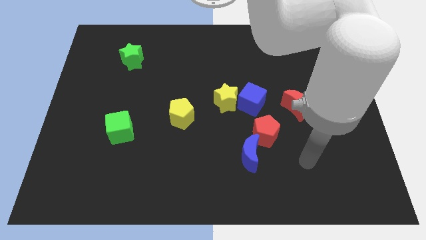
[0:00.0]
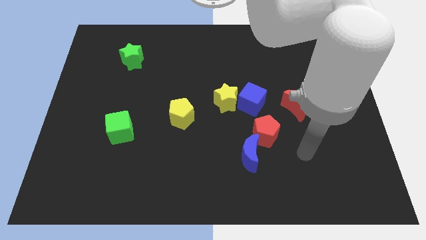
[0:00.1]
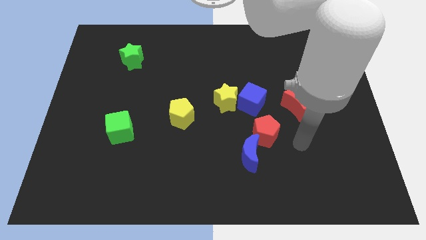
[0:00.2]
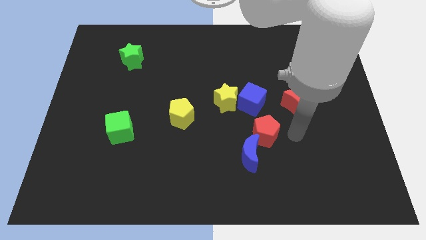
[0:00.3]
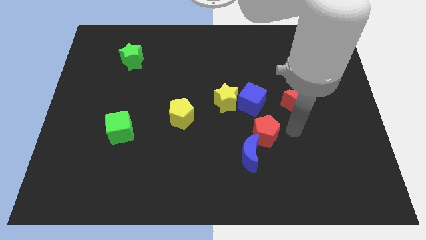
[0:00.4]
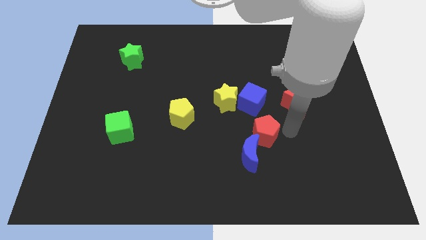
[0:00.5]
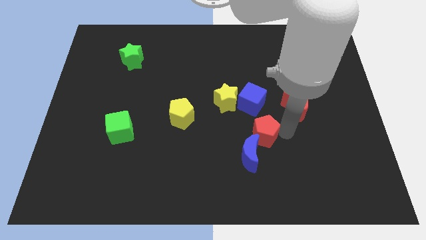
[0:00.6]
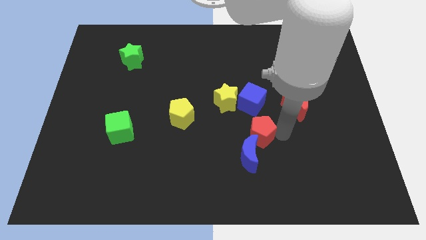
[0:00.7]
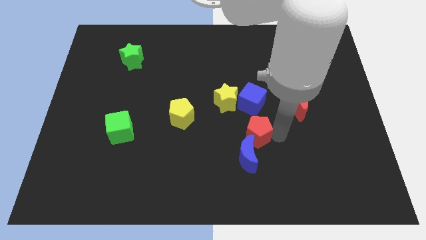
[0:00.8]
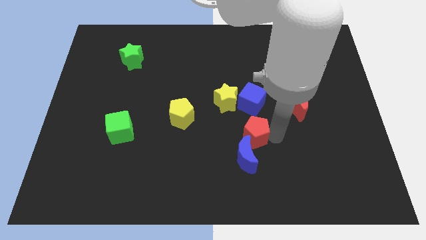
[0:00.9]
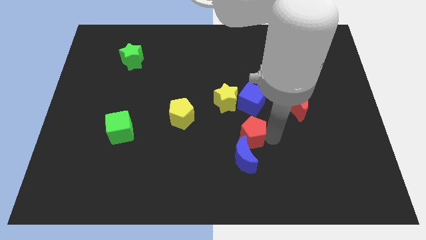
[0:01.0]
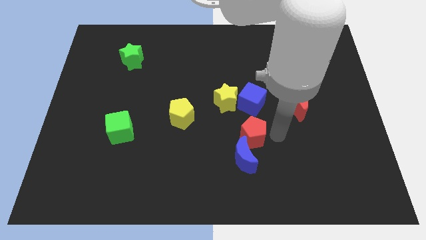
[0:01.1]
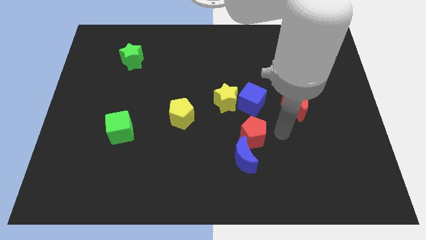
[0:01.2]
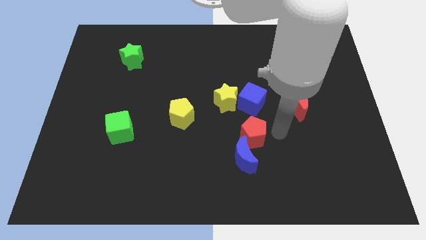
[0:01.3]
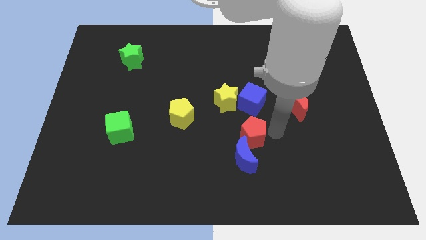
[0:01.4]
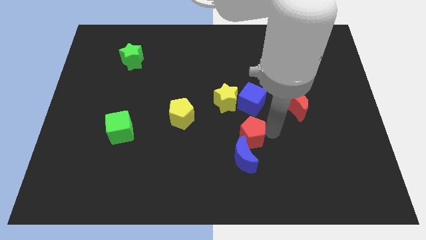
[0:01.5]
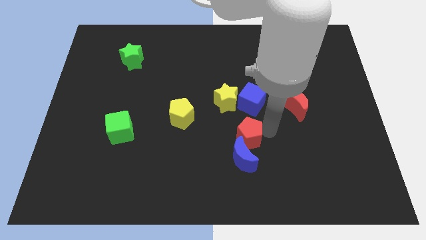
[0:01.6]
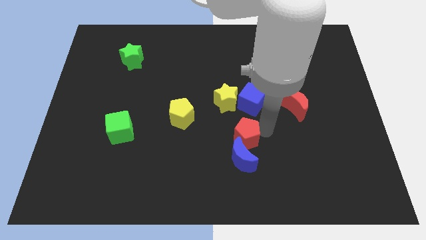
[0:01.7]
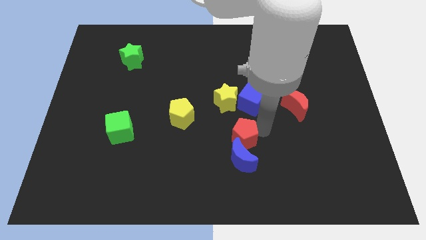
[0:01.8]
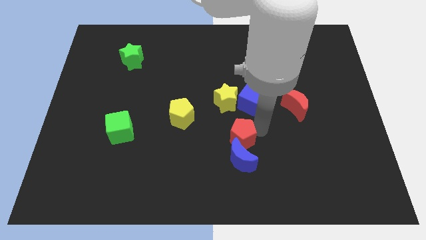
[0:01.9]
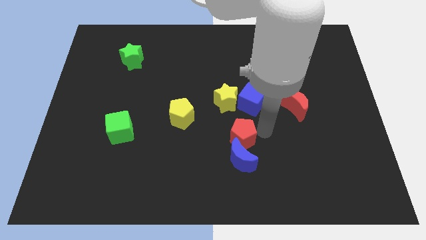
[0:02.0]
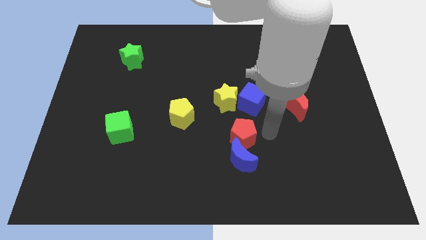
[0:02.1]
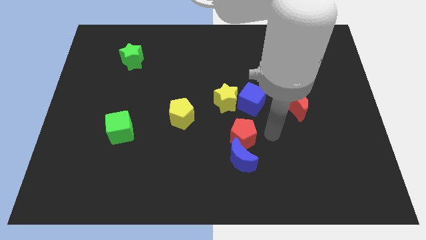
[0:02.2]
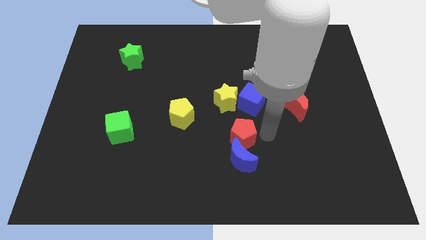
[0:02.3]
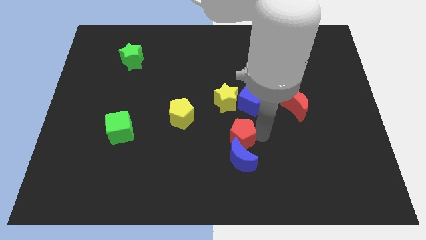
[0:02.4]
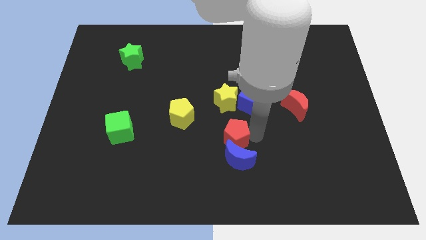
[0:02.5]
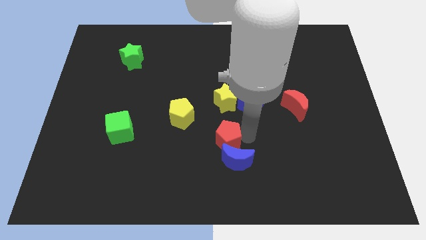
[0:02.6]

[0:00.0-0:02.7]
move the red pentagon a bit left

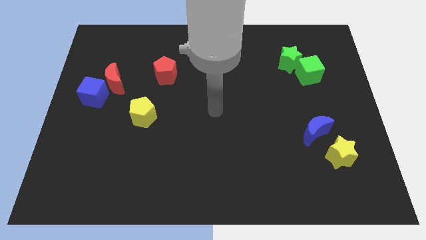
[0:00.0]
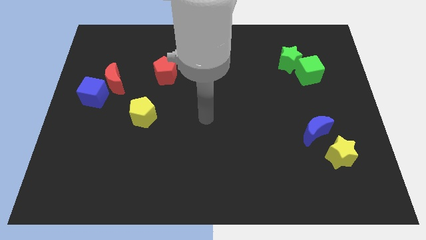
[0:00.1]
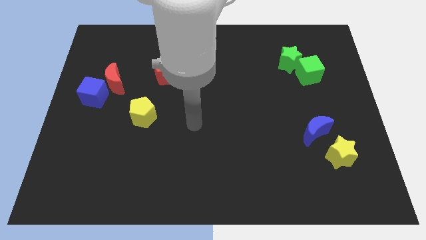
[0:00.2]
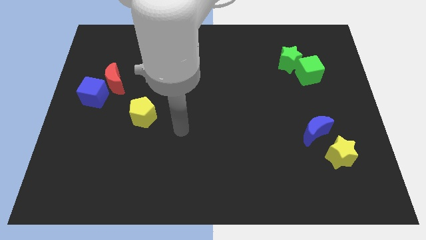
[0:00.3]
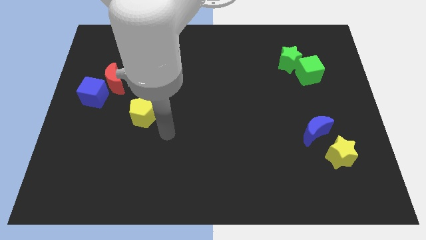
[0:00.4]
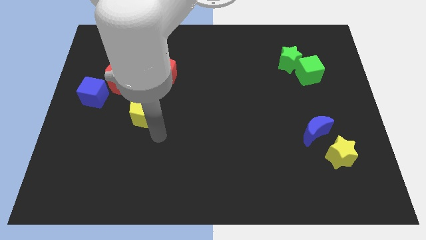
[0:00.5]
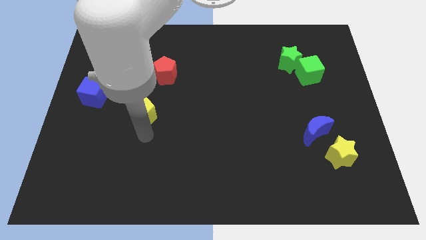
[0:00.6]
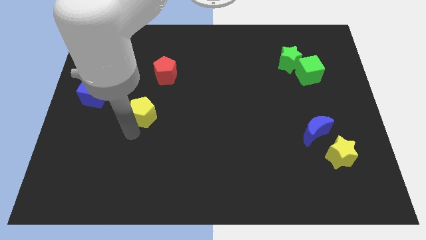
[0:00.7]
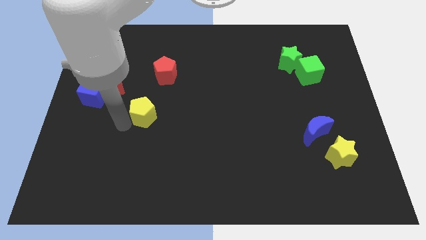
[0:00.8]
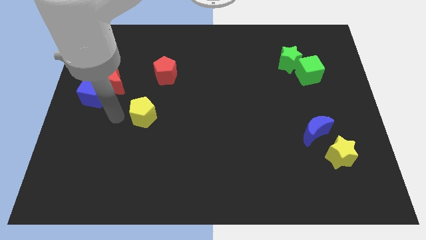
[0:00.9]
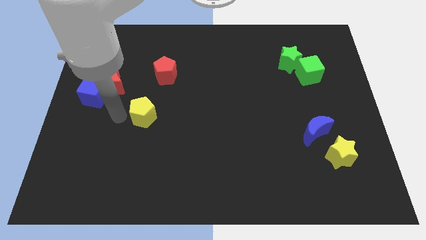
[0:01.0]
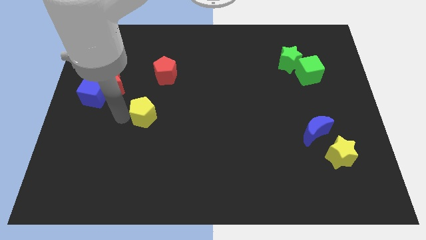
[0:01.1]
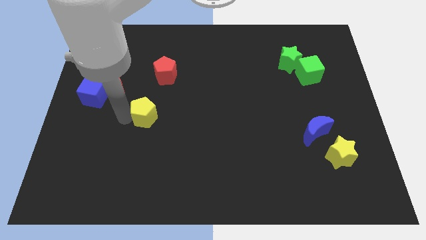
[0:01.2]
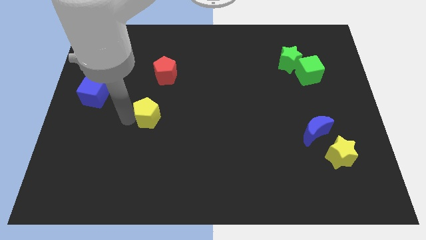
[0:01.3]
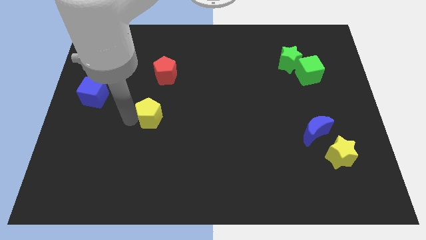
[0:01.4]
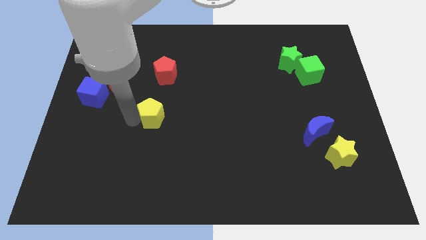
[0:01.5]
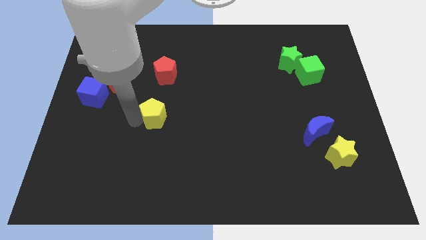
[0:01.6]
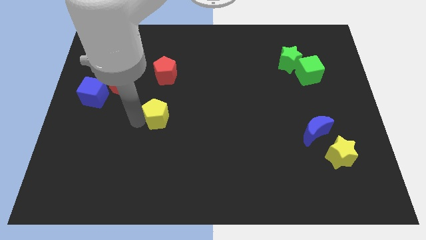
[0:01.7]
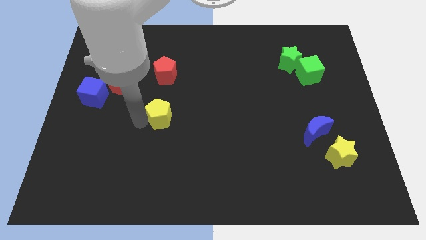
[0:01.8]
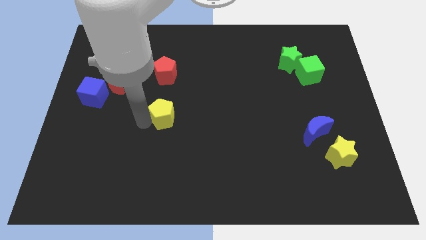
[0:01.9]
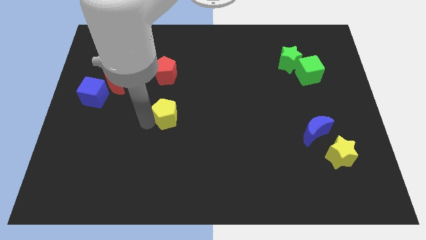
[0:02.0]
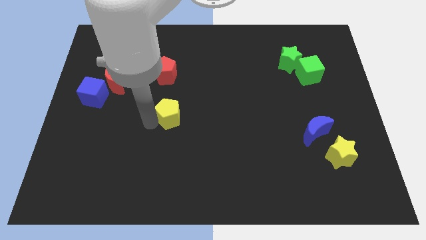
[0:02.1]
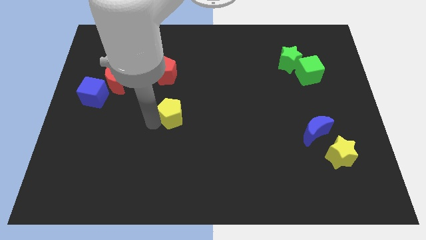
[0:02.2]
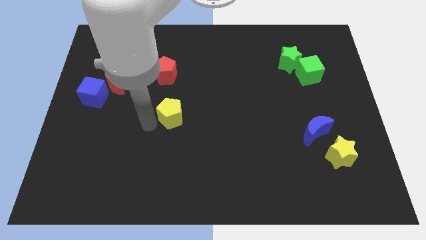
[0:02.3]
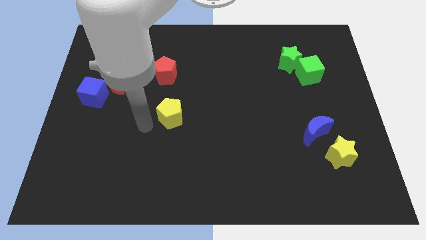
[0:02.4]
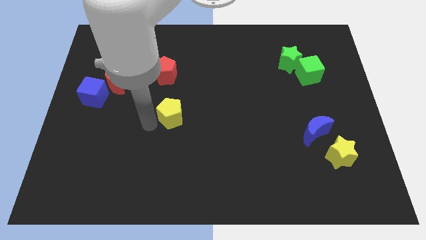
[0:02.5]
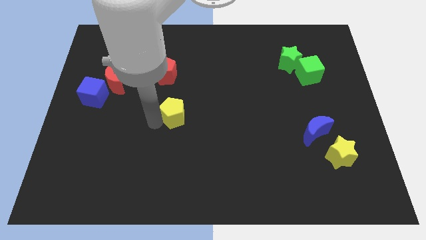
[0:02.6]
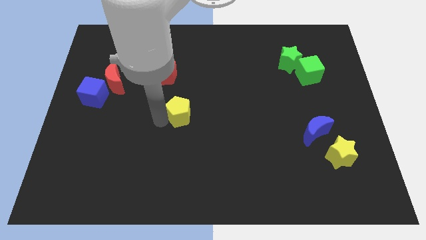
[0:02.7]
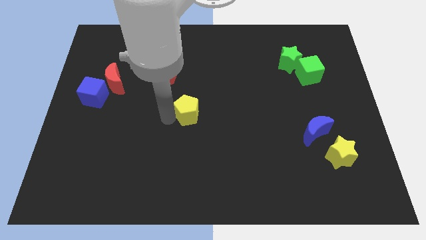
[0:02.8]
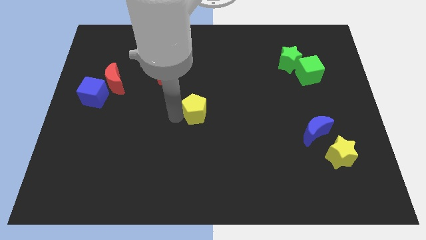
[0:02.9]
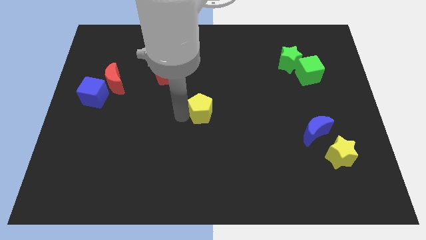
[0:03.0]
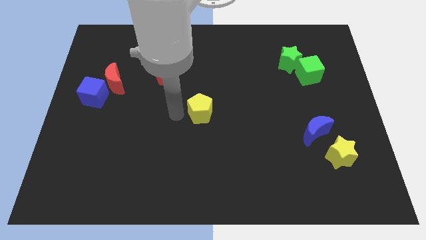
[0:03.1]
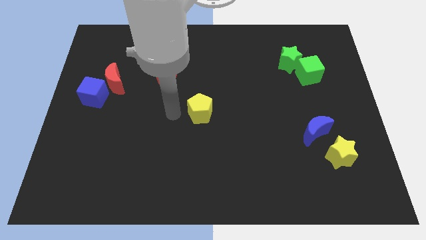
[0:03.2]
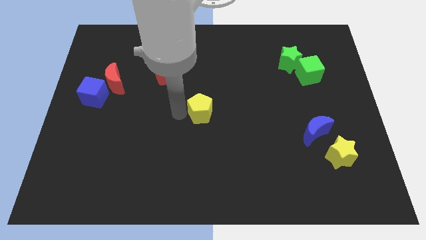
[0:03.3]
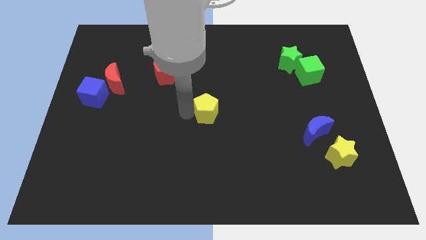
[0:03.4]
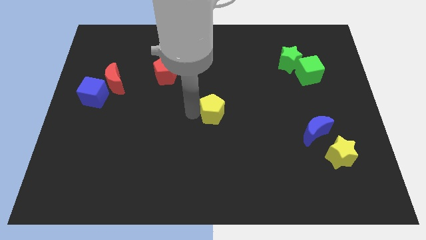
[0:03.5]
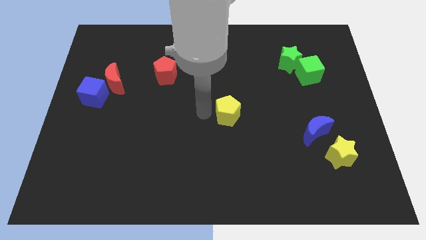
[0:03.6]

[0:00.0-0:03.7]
slide the yellow pentagon to the right

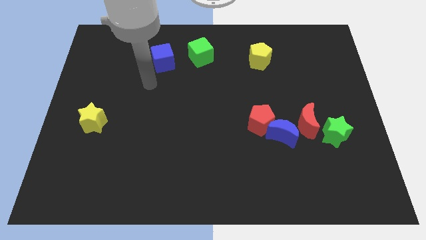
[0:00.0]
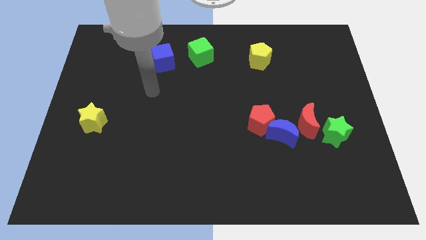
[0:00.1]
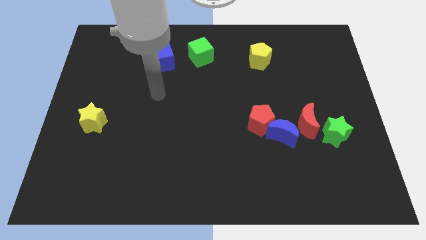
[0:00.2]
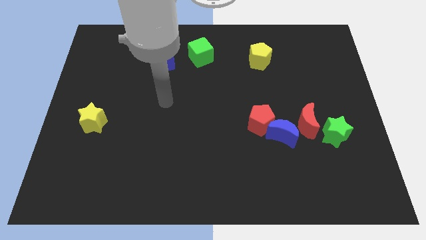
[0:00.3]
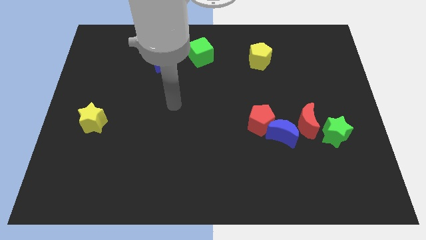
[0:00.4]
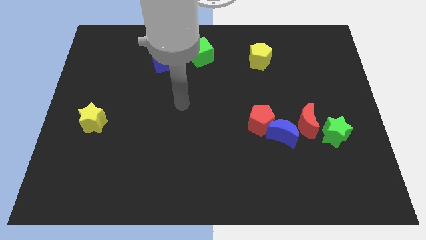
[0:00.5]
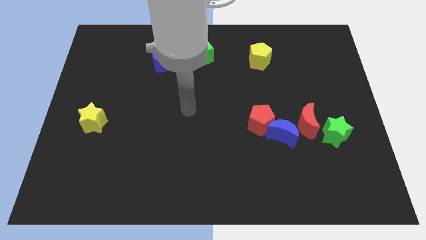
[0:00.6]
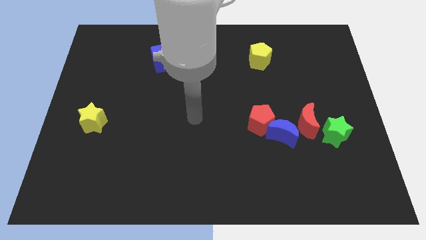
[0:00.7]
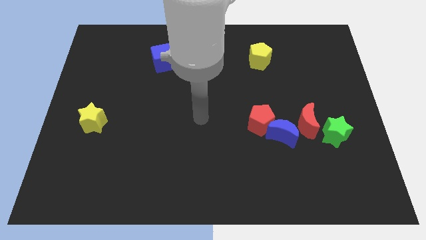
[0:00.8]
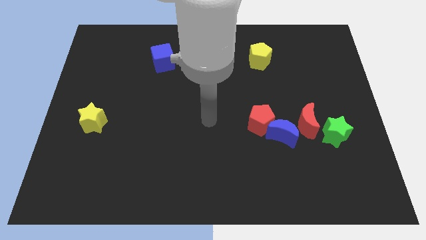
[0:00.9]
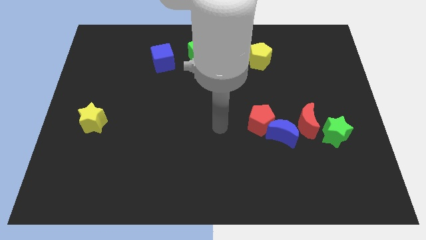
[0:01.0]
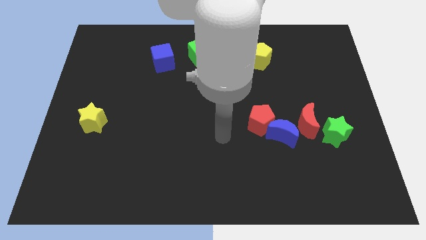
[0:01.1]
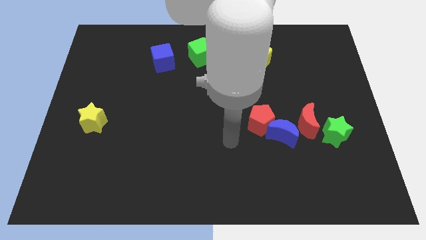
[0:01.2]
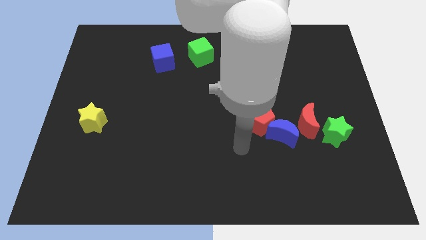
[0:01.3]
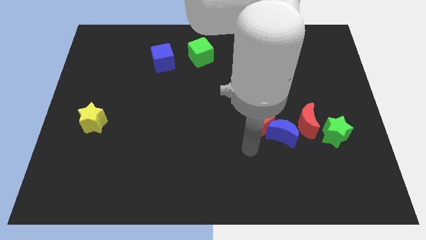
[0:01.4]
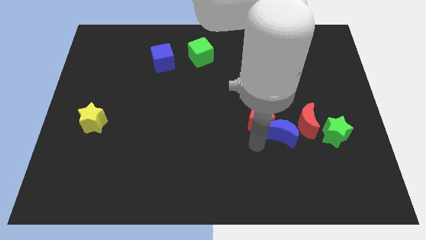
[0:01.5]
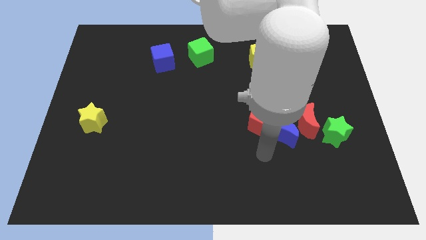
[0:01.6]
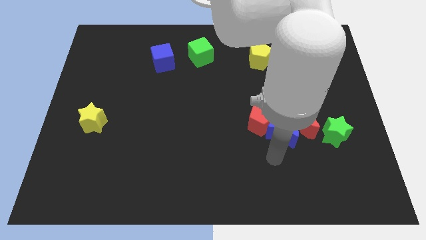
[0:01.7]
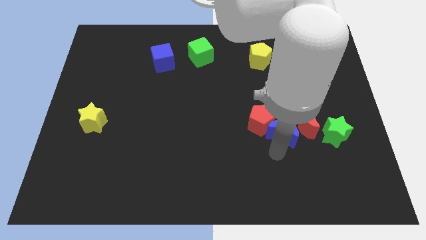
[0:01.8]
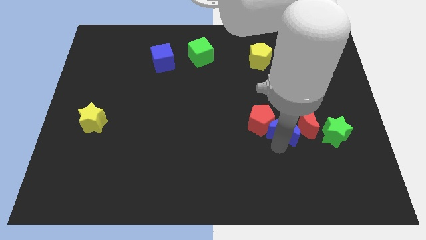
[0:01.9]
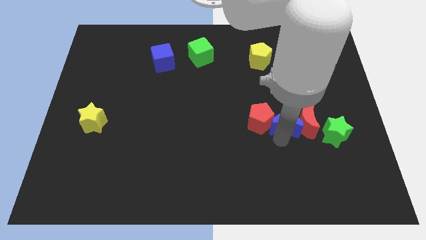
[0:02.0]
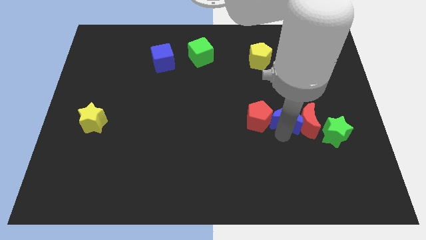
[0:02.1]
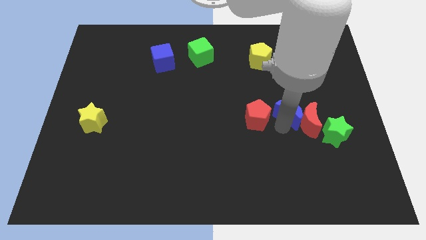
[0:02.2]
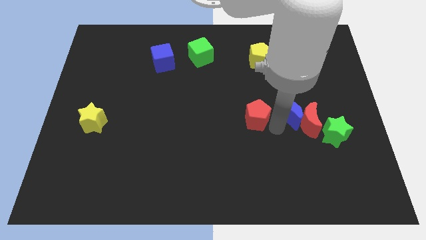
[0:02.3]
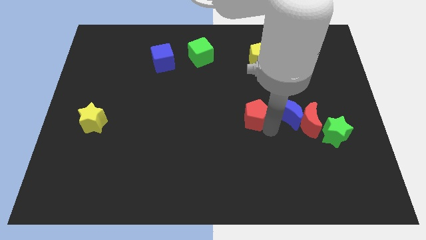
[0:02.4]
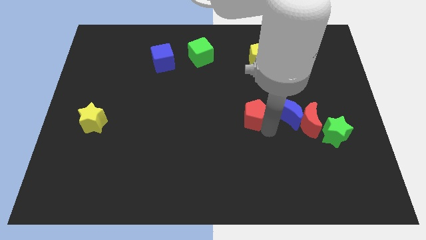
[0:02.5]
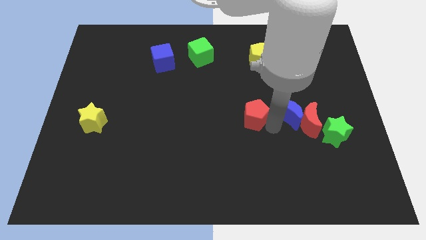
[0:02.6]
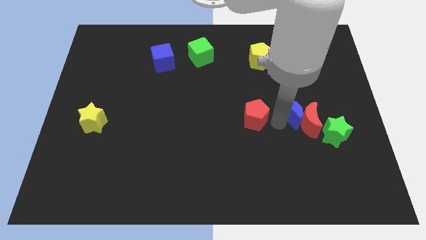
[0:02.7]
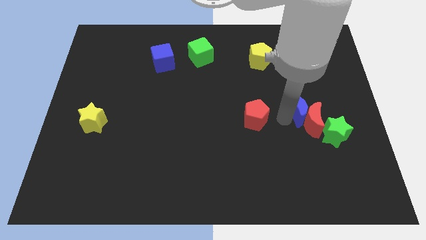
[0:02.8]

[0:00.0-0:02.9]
move the blue moon up and then to the right somewhat
